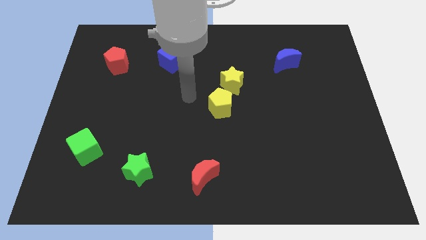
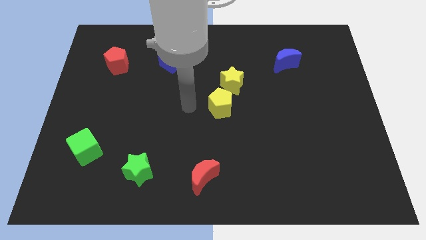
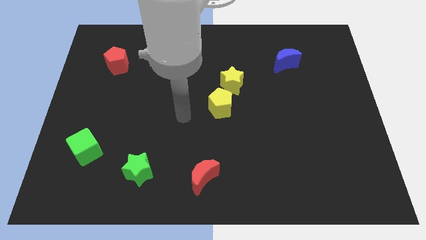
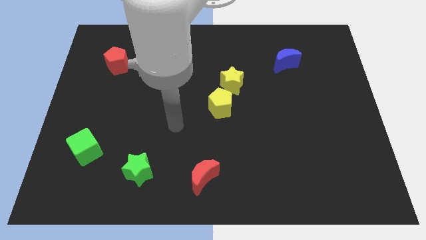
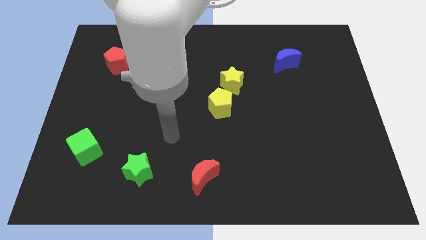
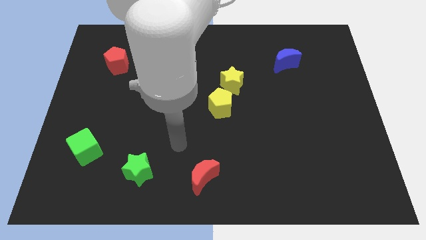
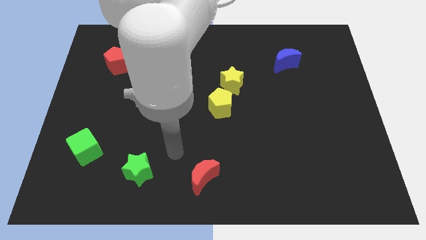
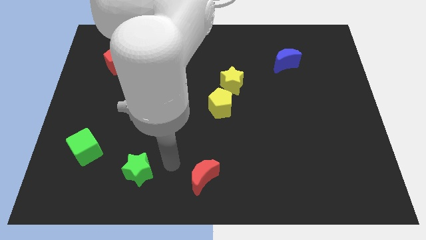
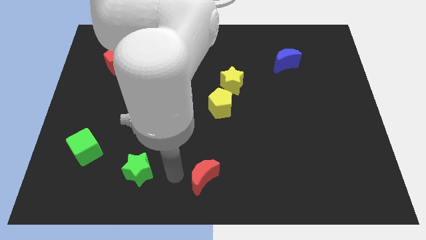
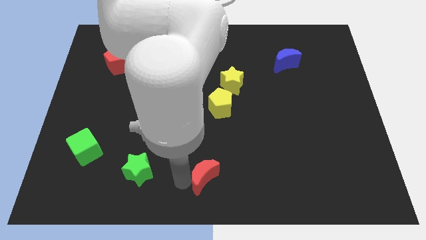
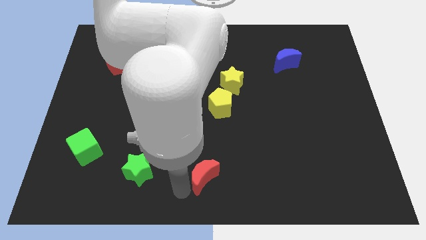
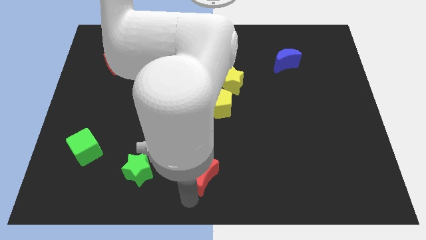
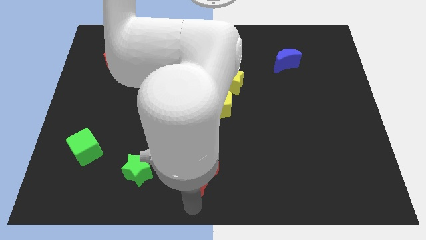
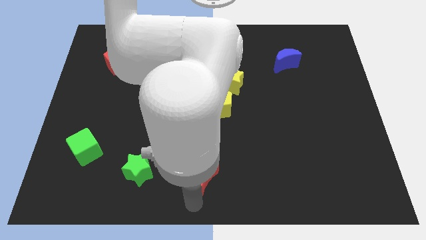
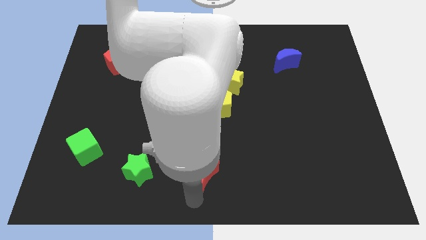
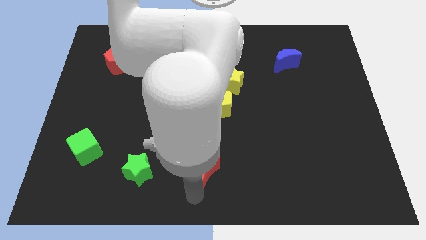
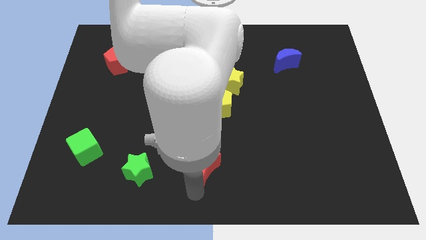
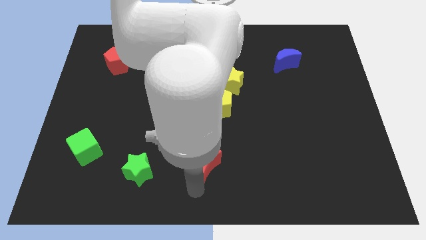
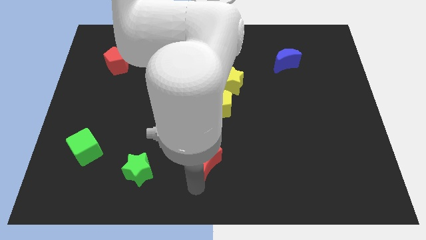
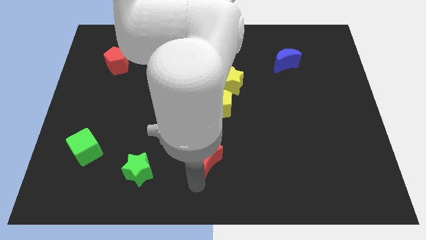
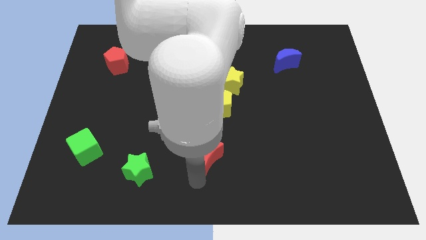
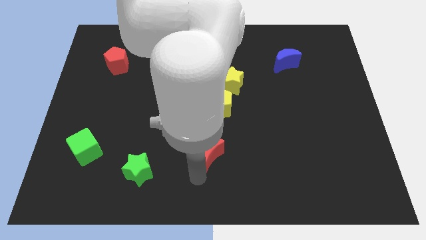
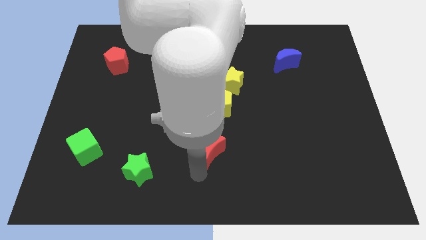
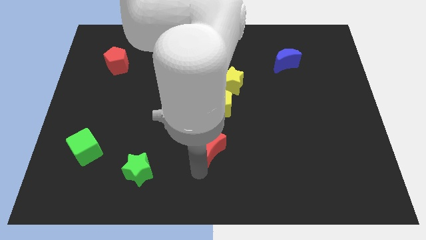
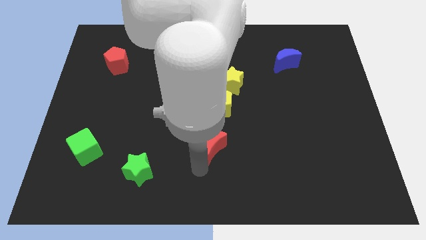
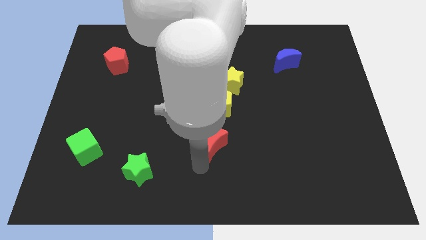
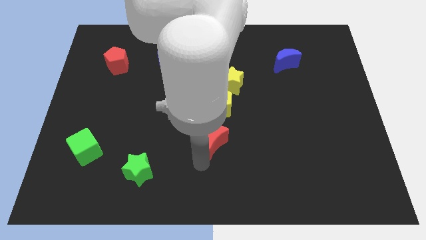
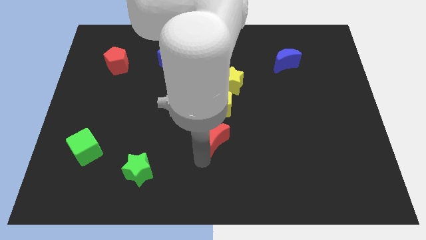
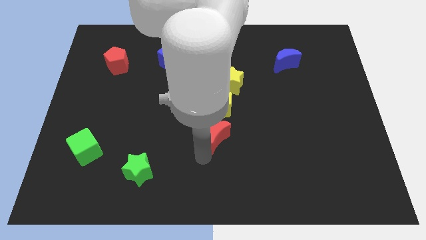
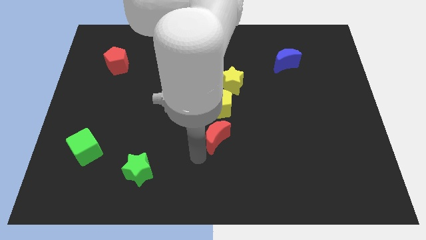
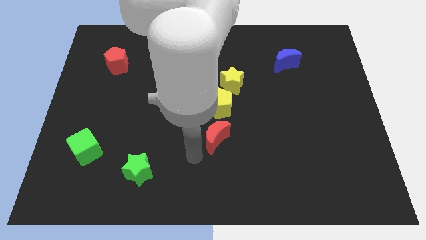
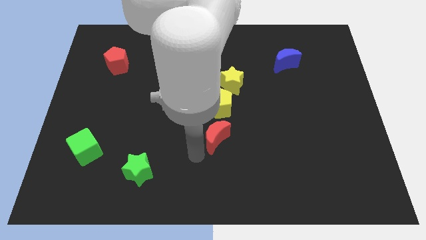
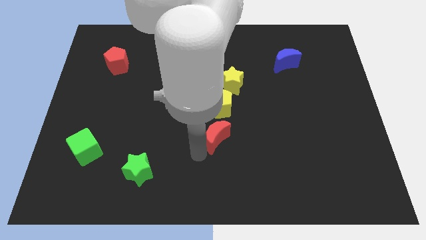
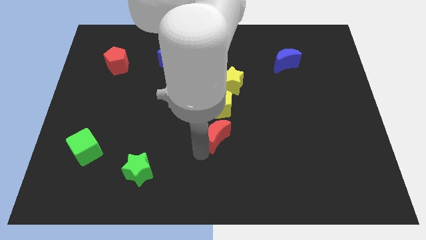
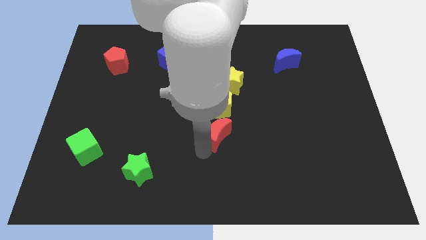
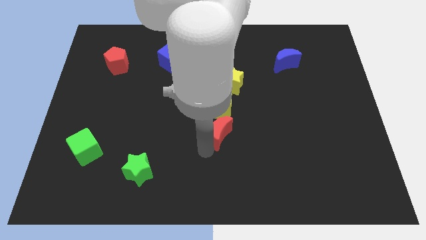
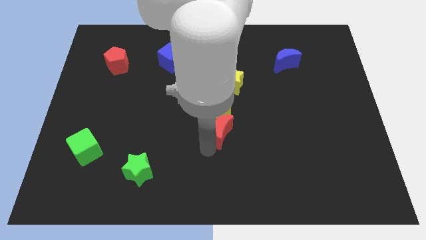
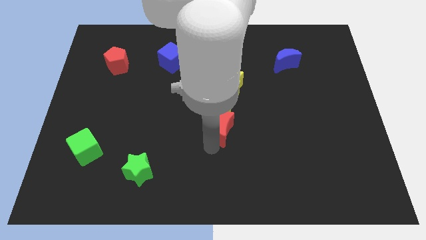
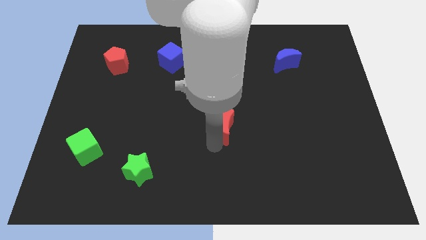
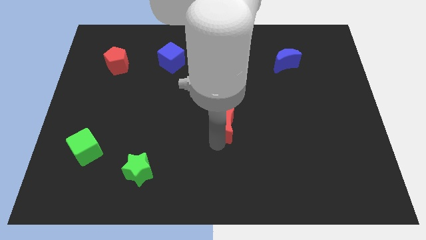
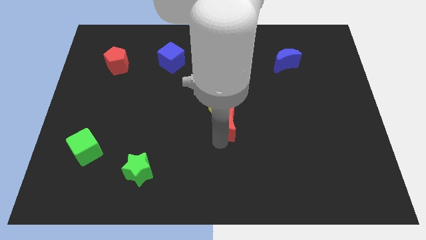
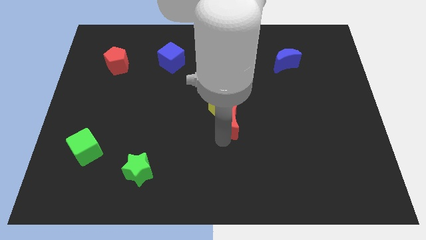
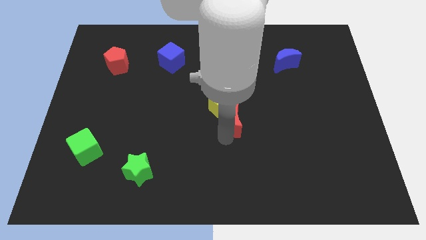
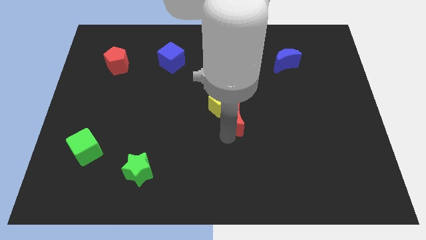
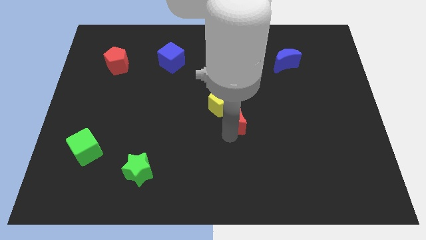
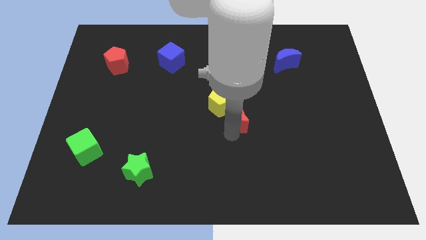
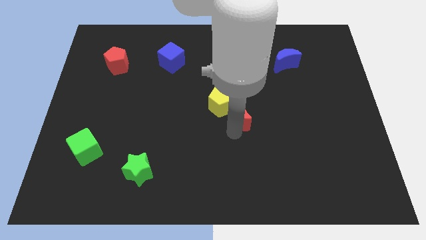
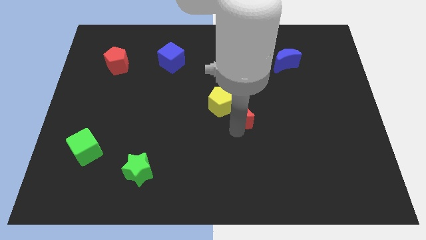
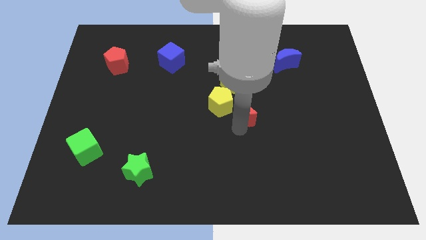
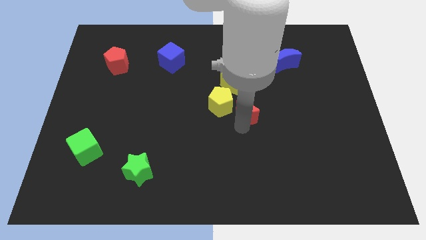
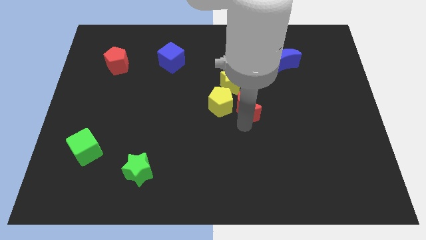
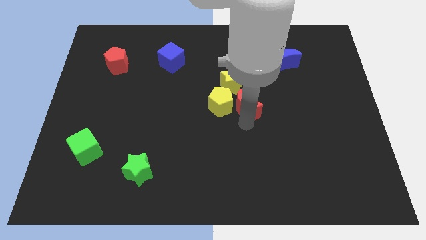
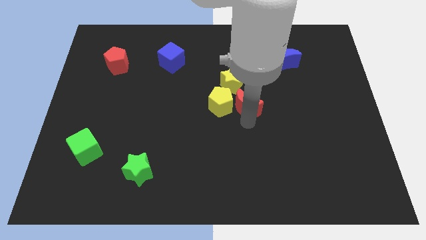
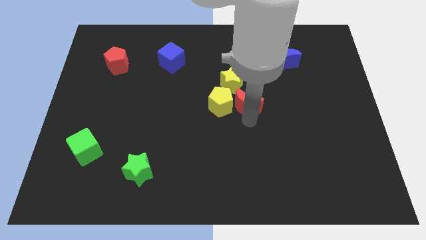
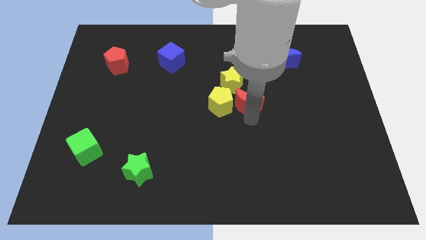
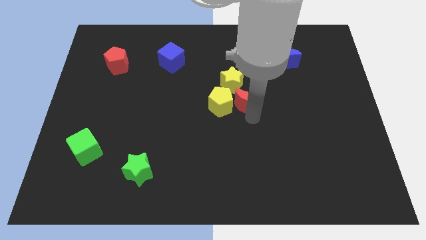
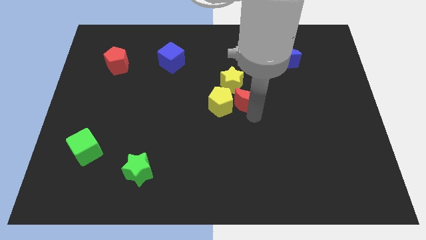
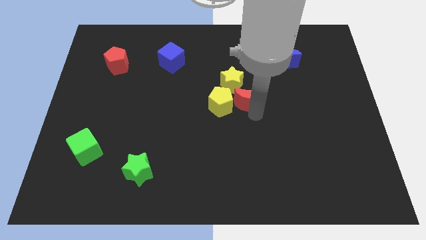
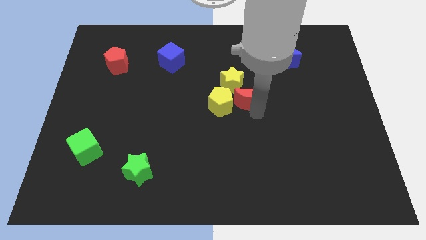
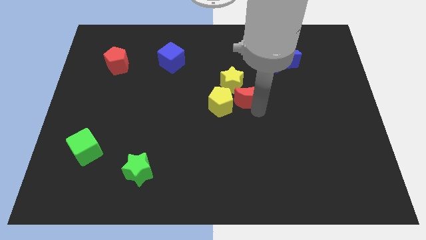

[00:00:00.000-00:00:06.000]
slide the red moon to the yellow star

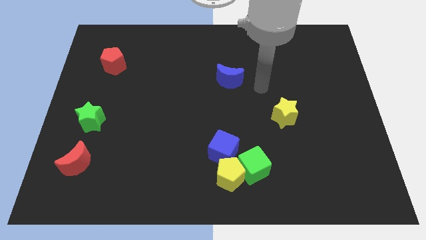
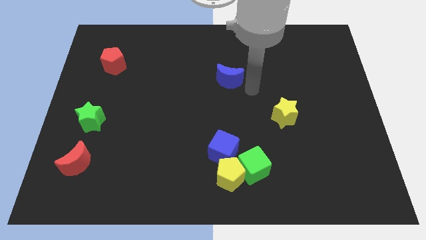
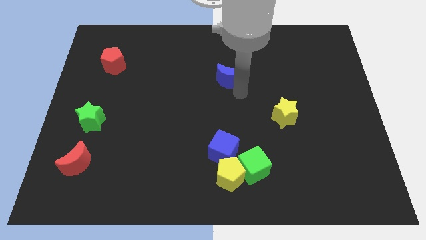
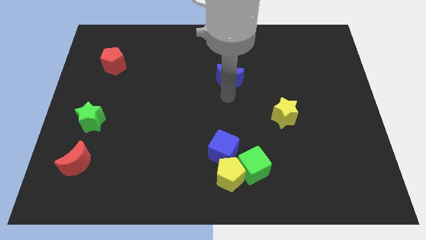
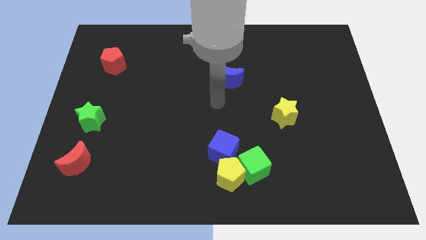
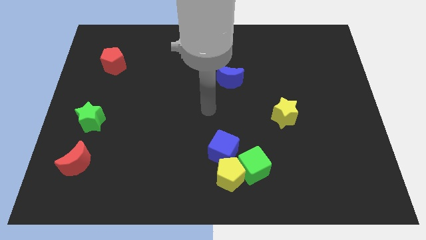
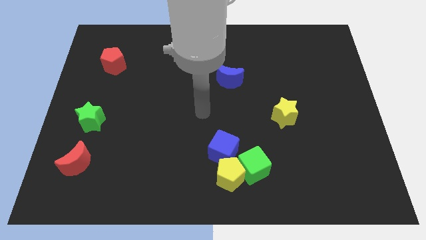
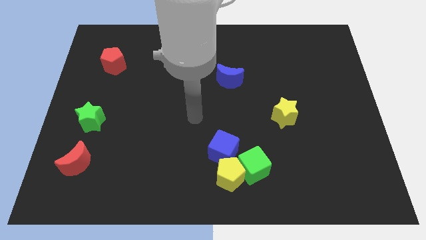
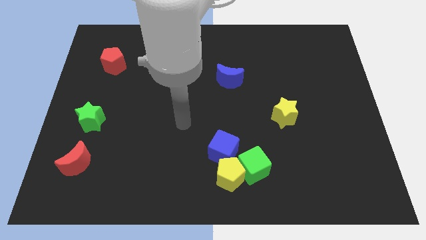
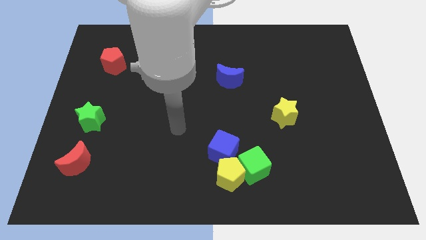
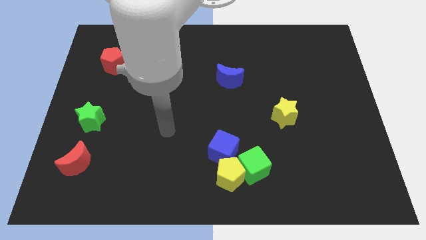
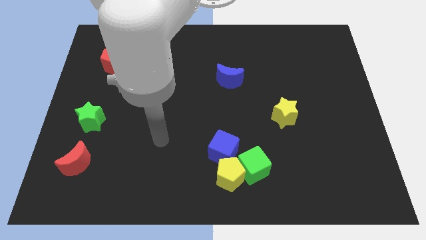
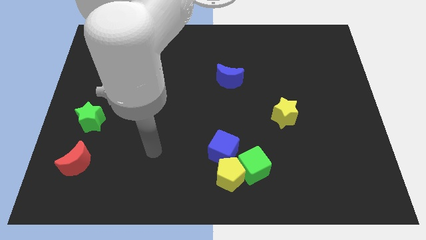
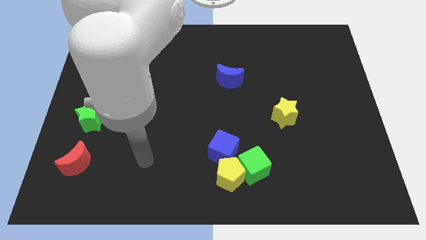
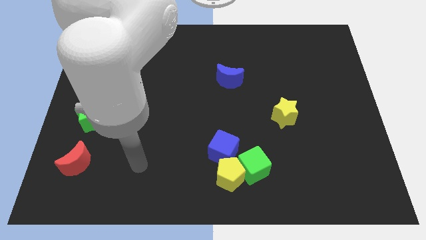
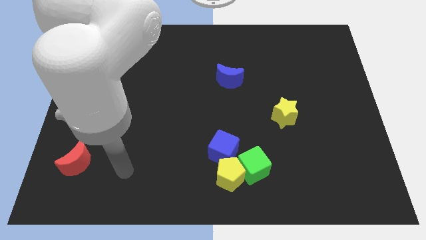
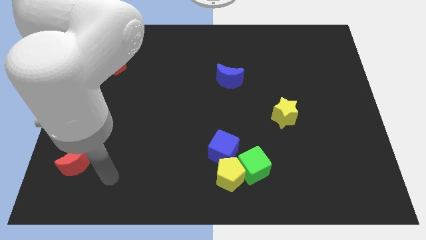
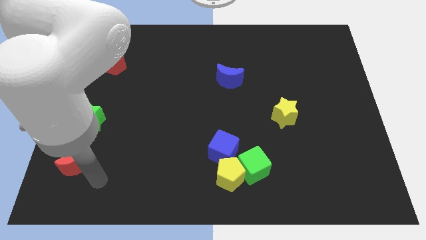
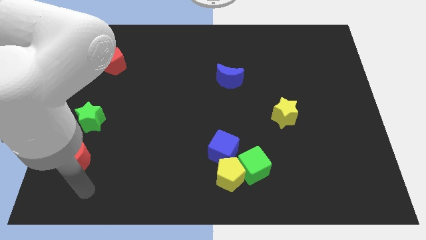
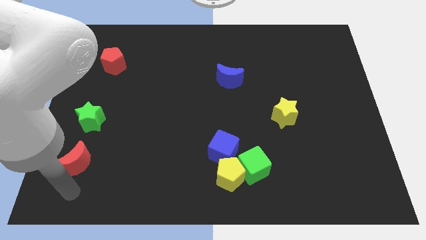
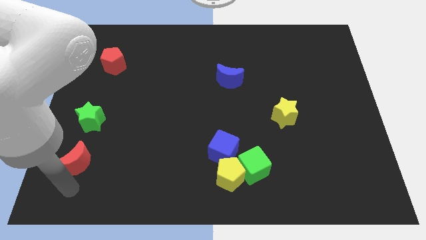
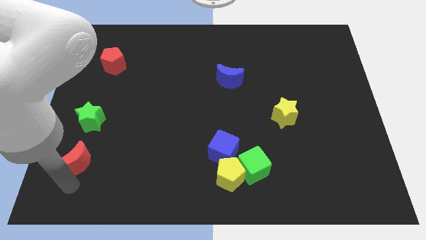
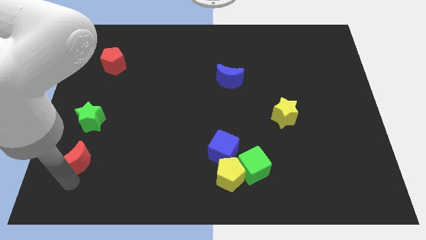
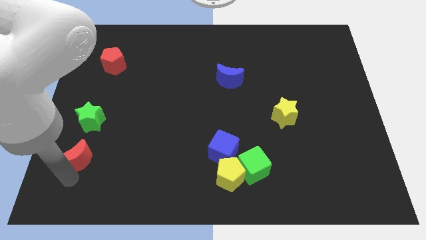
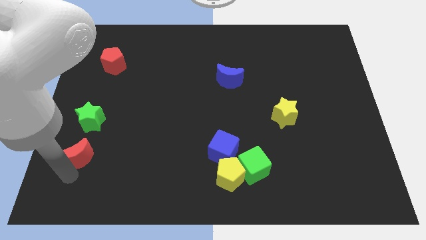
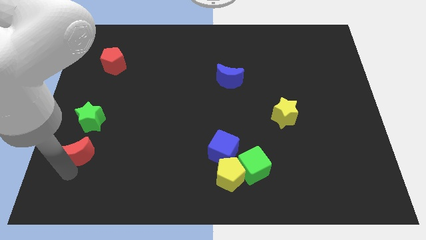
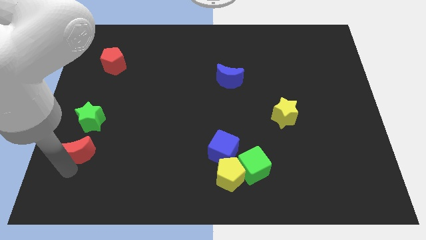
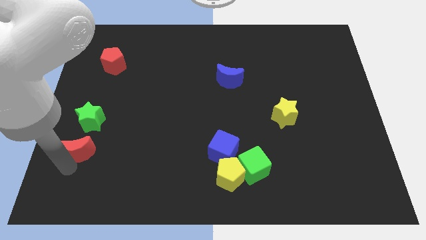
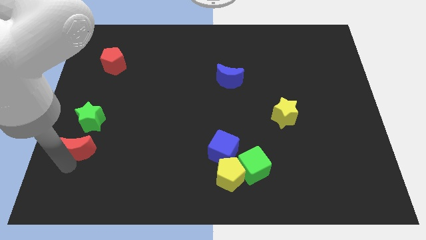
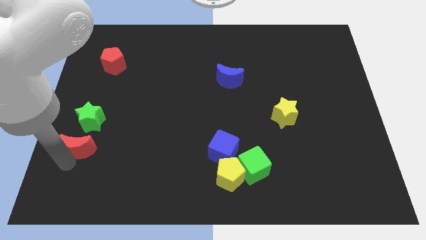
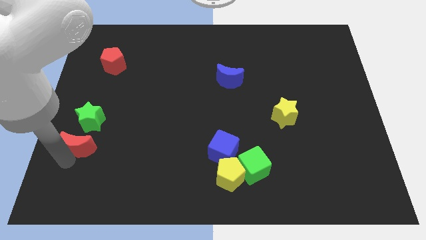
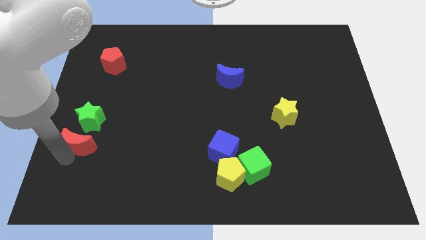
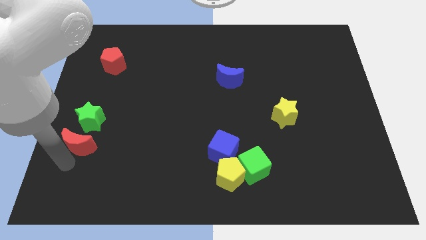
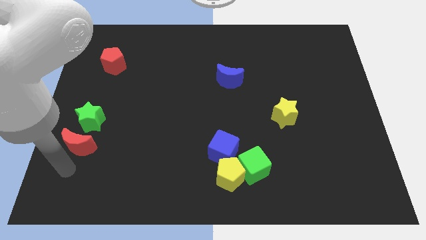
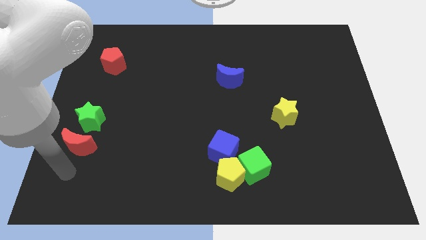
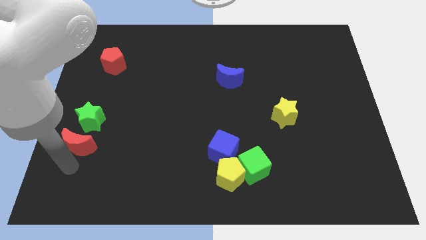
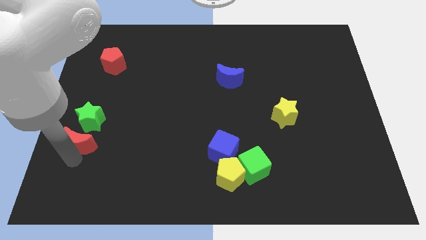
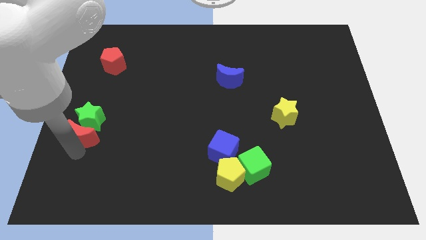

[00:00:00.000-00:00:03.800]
slide the red moon to the green star
